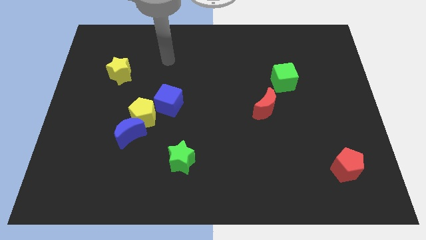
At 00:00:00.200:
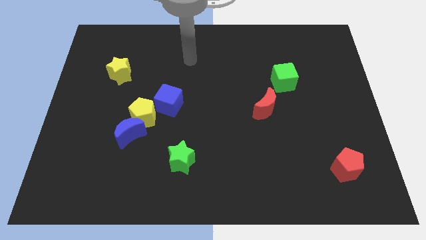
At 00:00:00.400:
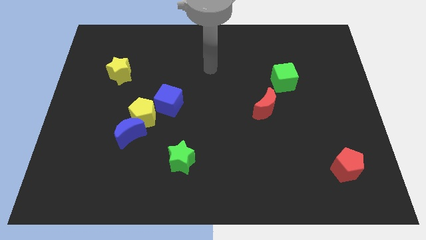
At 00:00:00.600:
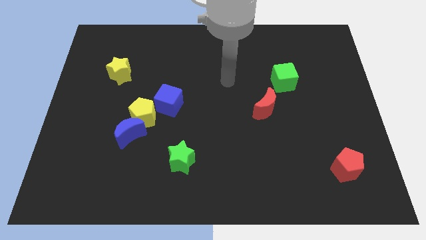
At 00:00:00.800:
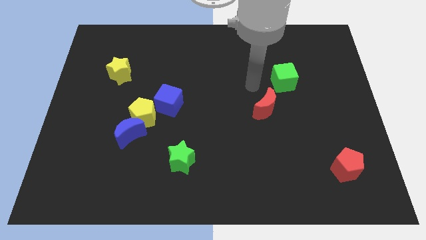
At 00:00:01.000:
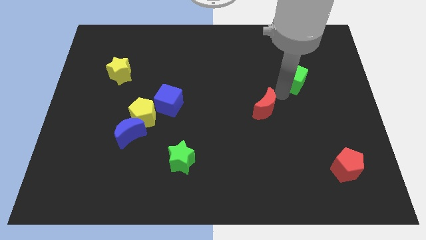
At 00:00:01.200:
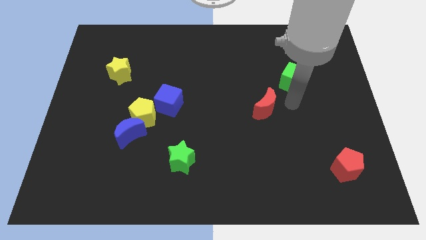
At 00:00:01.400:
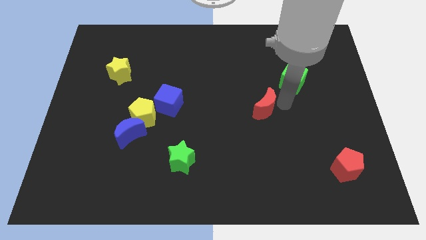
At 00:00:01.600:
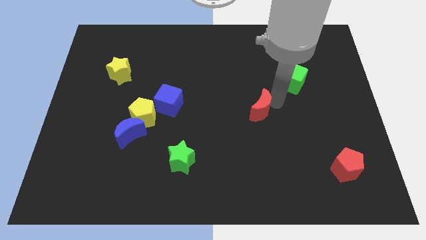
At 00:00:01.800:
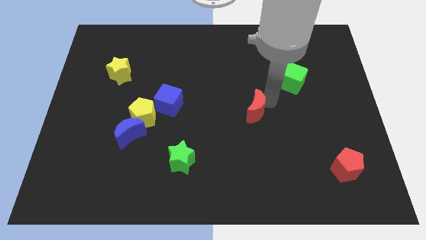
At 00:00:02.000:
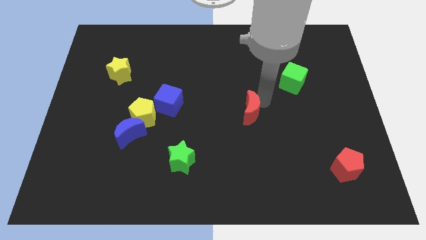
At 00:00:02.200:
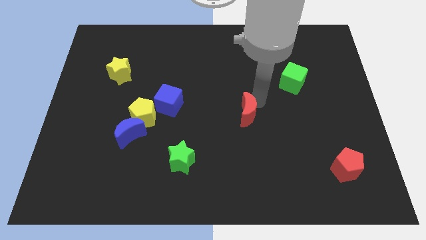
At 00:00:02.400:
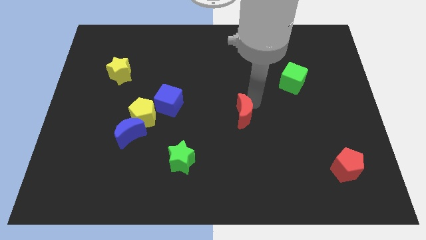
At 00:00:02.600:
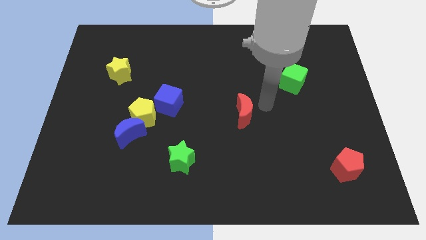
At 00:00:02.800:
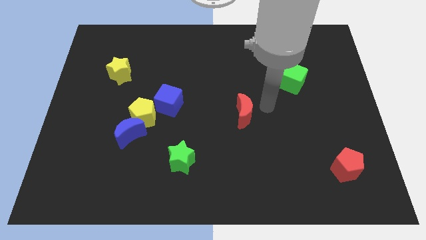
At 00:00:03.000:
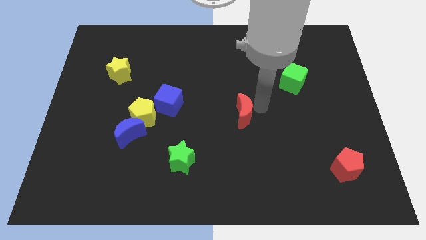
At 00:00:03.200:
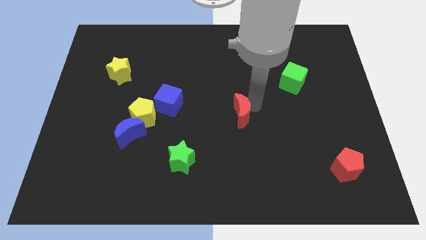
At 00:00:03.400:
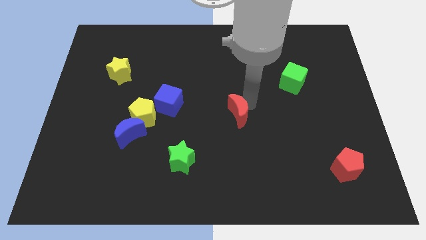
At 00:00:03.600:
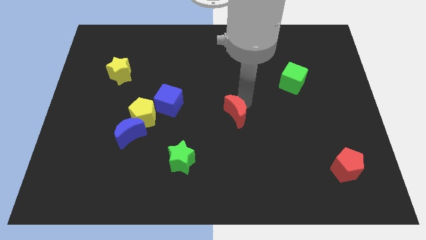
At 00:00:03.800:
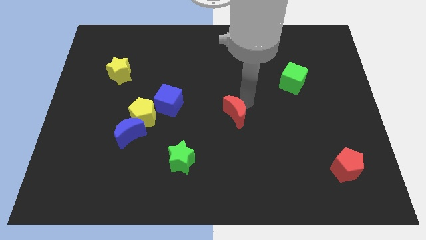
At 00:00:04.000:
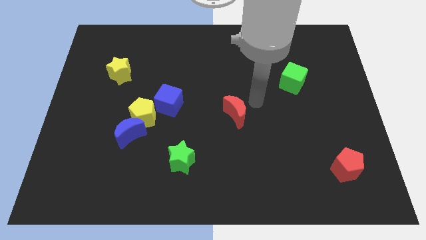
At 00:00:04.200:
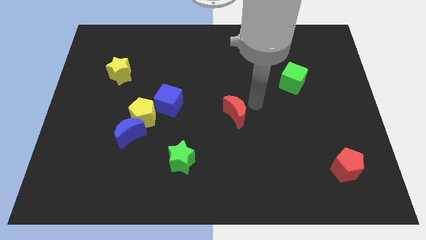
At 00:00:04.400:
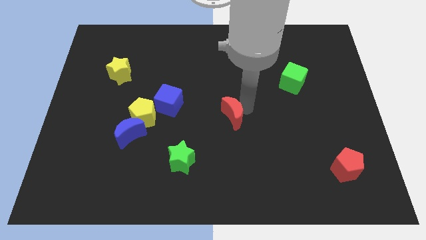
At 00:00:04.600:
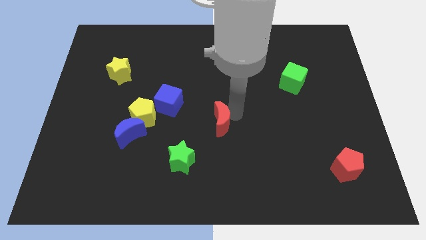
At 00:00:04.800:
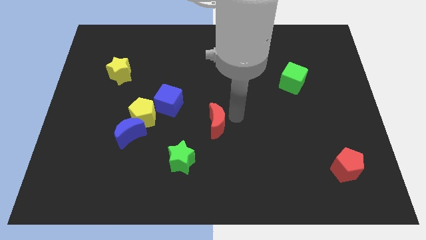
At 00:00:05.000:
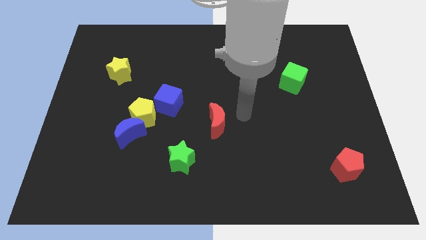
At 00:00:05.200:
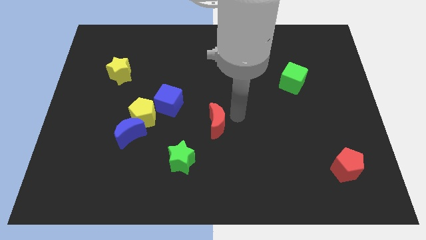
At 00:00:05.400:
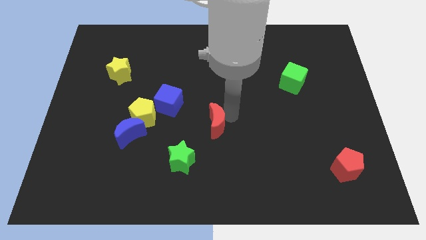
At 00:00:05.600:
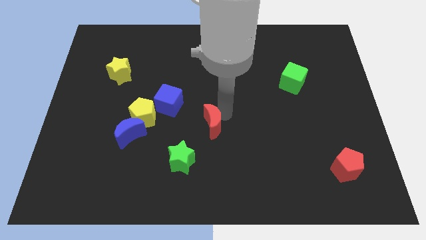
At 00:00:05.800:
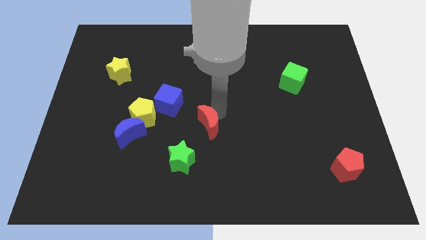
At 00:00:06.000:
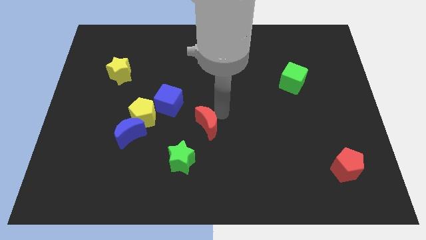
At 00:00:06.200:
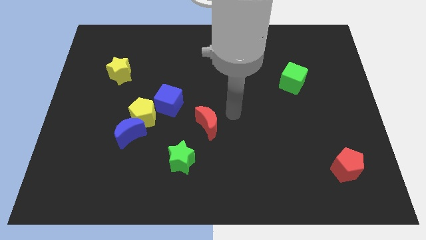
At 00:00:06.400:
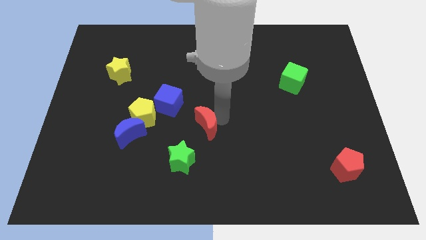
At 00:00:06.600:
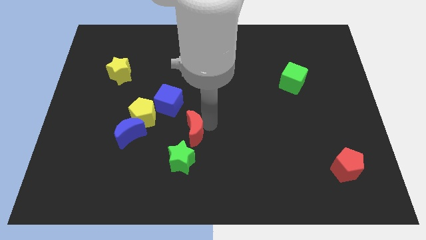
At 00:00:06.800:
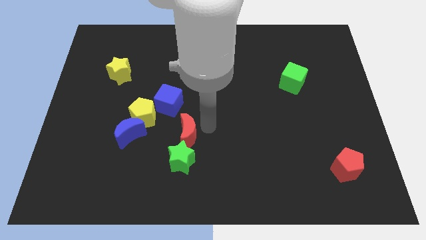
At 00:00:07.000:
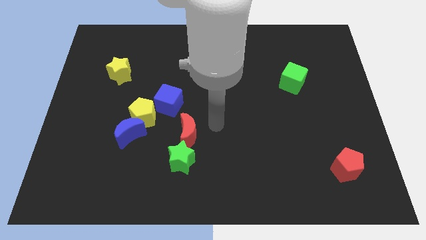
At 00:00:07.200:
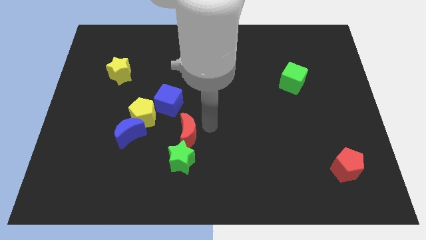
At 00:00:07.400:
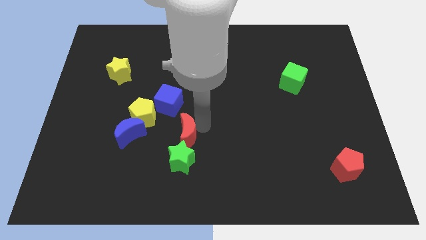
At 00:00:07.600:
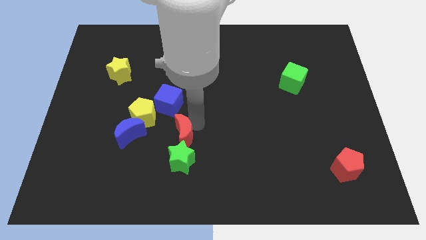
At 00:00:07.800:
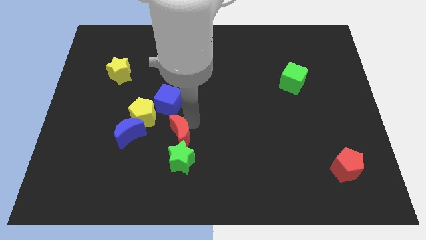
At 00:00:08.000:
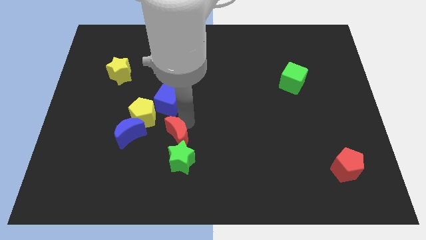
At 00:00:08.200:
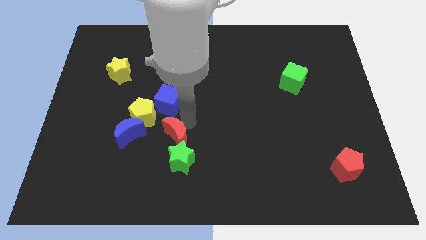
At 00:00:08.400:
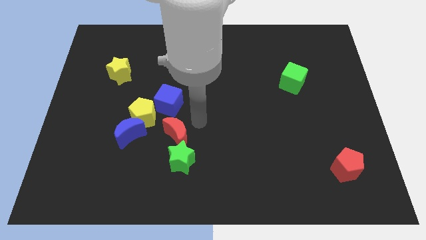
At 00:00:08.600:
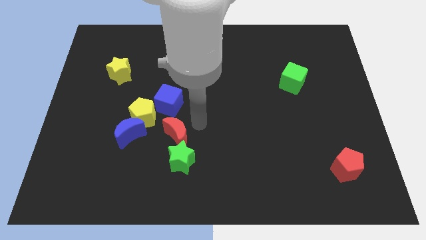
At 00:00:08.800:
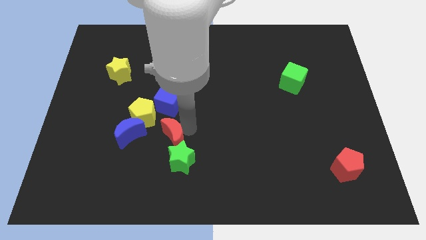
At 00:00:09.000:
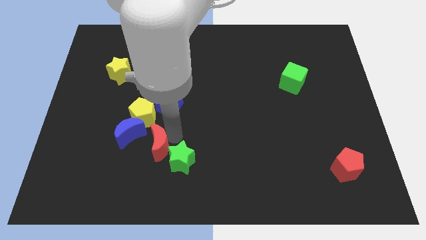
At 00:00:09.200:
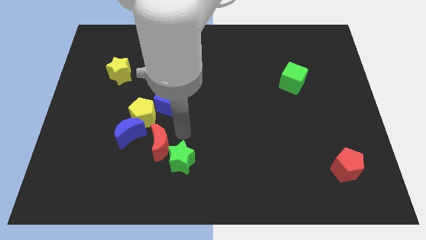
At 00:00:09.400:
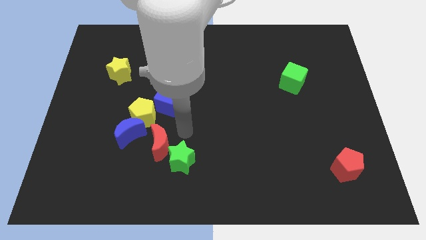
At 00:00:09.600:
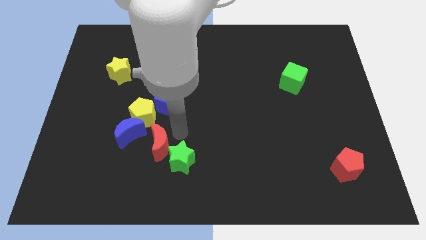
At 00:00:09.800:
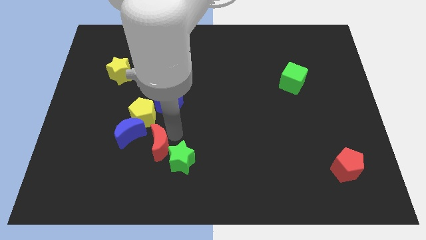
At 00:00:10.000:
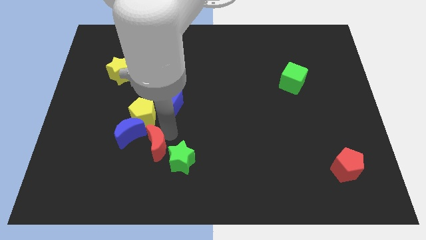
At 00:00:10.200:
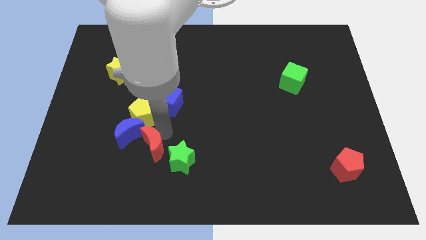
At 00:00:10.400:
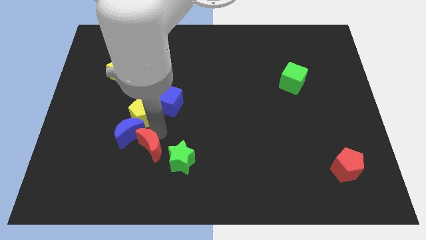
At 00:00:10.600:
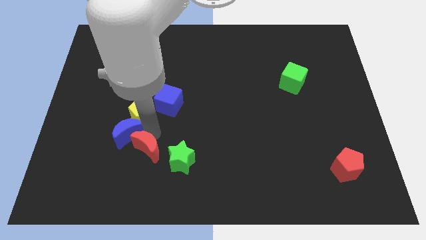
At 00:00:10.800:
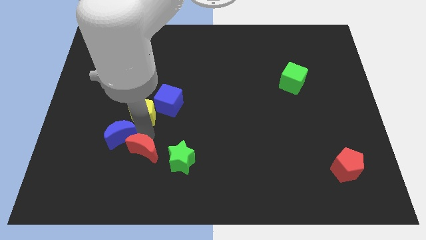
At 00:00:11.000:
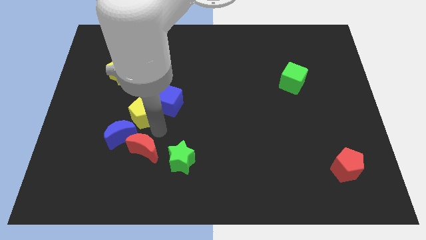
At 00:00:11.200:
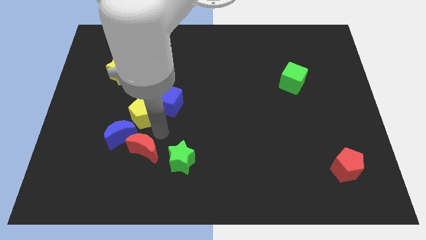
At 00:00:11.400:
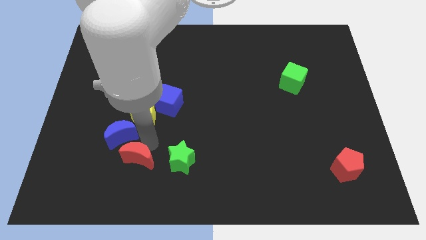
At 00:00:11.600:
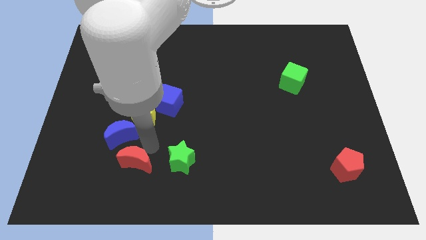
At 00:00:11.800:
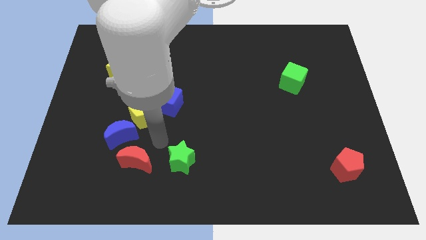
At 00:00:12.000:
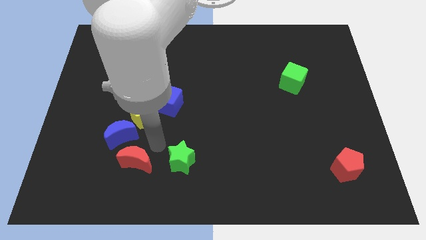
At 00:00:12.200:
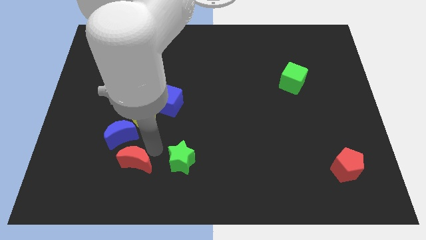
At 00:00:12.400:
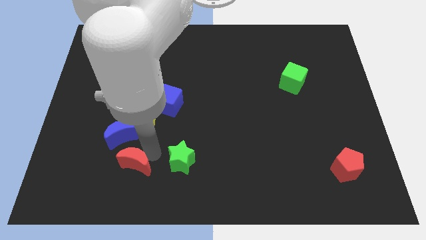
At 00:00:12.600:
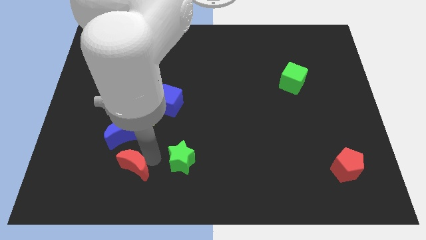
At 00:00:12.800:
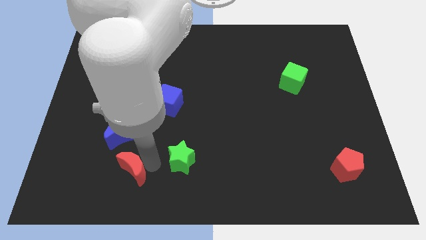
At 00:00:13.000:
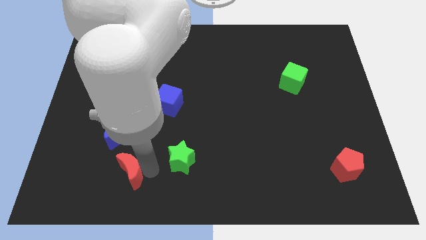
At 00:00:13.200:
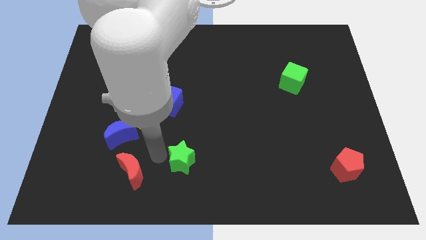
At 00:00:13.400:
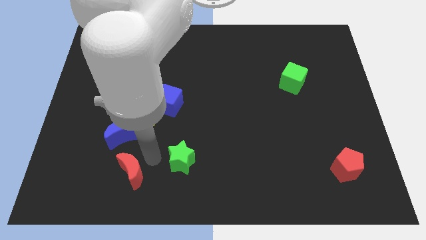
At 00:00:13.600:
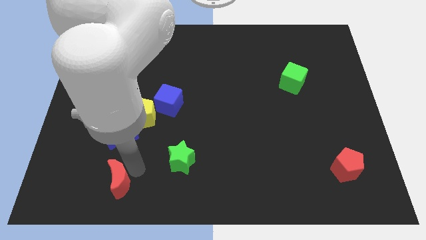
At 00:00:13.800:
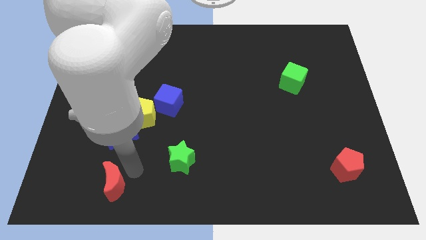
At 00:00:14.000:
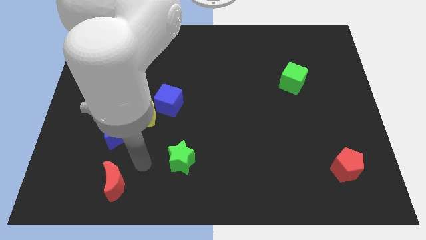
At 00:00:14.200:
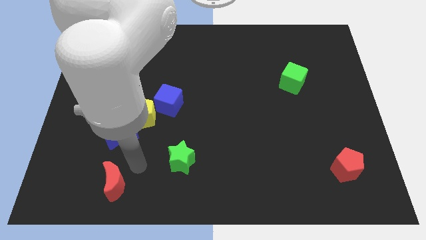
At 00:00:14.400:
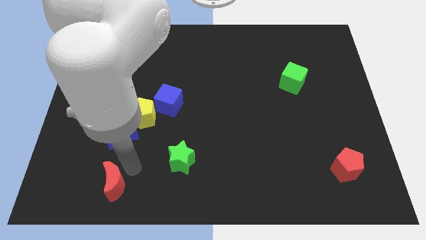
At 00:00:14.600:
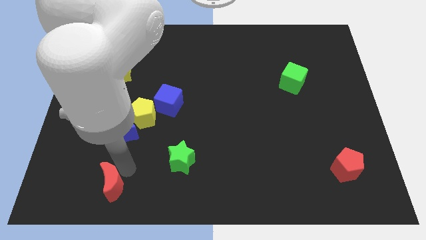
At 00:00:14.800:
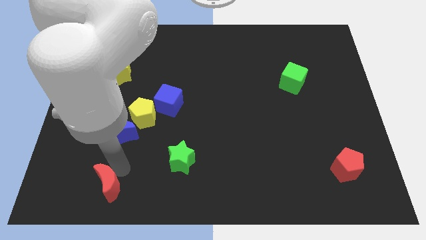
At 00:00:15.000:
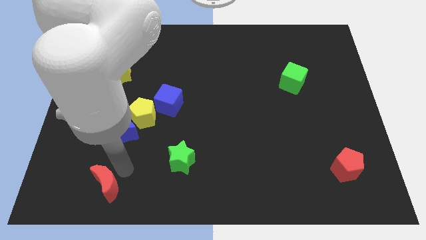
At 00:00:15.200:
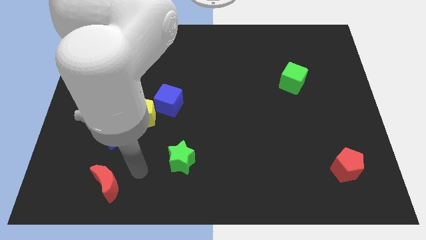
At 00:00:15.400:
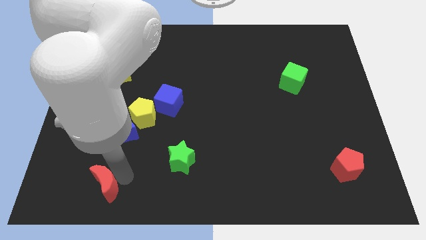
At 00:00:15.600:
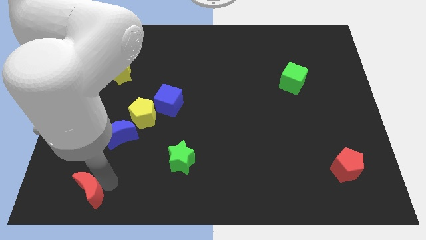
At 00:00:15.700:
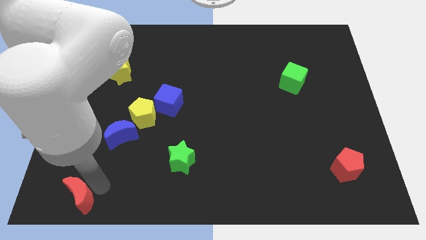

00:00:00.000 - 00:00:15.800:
move the red moon to the bottom left corner
